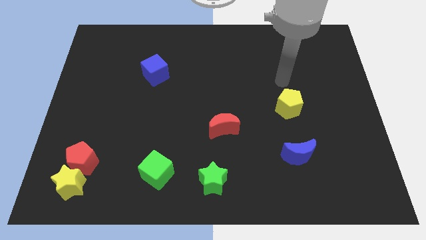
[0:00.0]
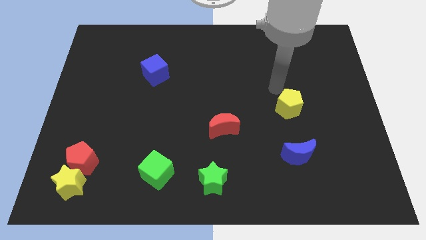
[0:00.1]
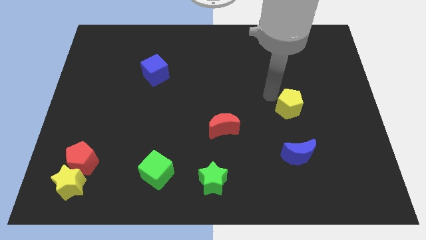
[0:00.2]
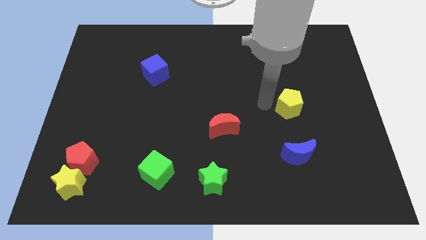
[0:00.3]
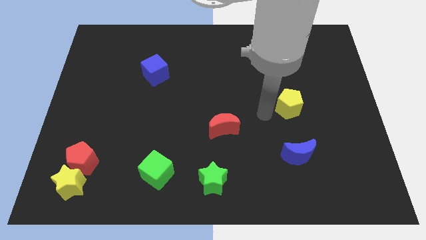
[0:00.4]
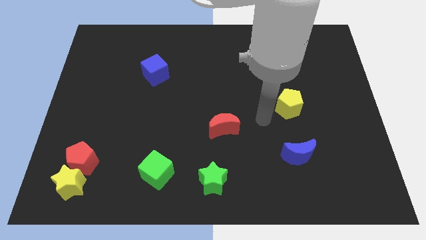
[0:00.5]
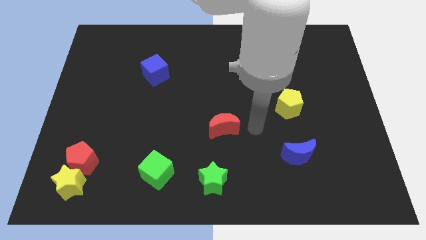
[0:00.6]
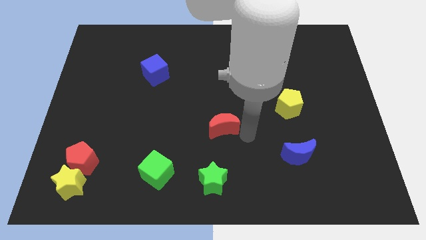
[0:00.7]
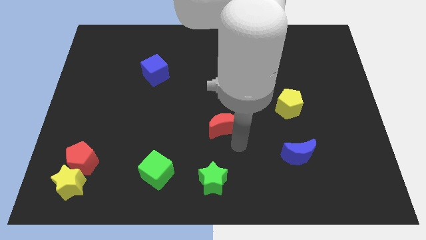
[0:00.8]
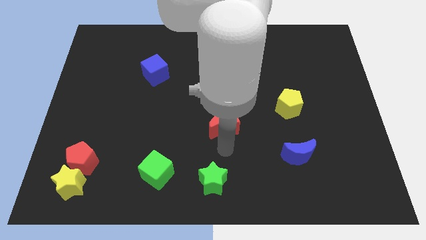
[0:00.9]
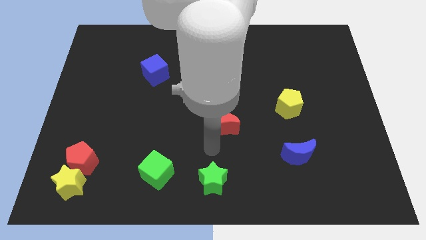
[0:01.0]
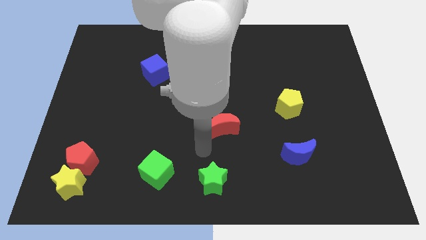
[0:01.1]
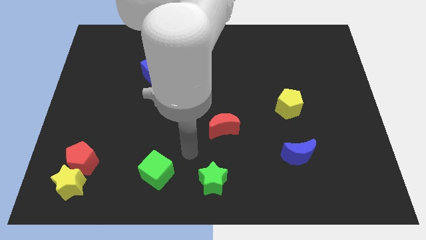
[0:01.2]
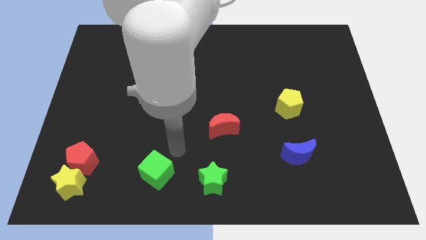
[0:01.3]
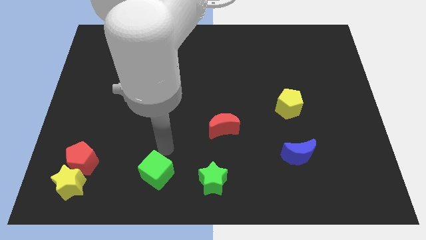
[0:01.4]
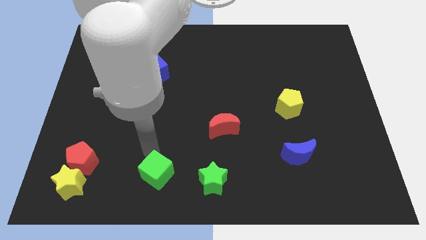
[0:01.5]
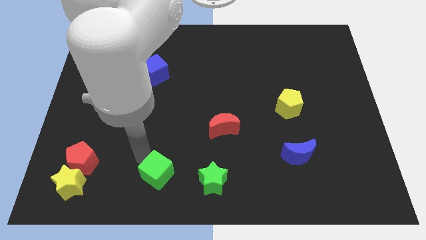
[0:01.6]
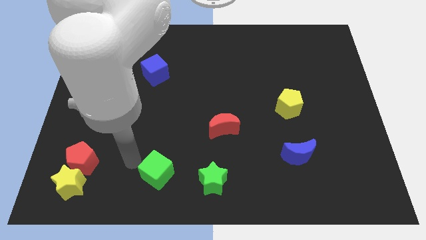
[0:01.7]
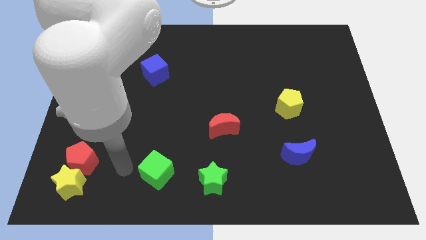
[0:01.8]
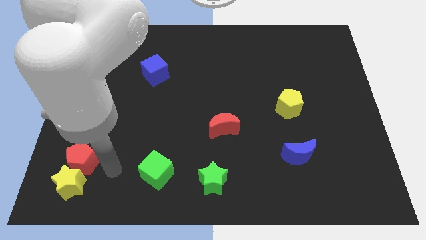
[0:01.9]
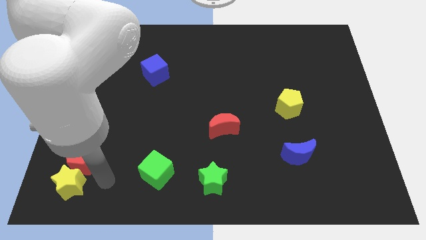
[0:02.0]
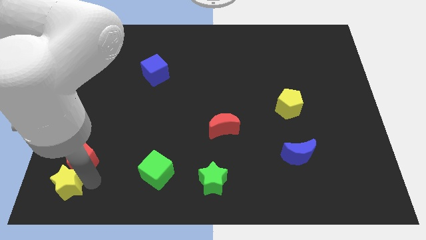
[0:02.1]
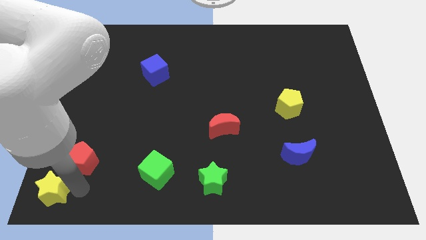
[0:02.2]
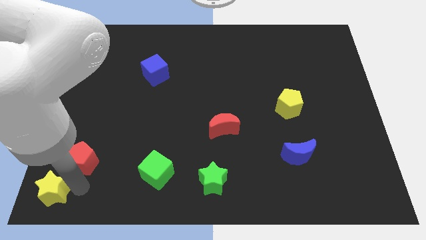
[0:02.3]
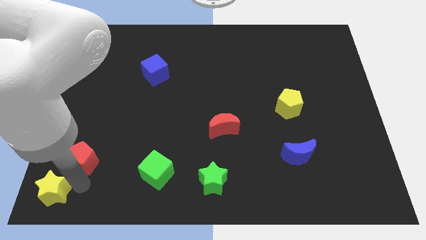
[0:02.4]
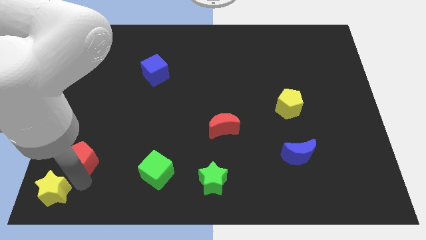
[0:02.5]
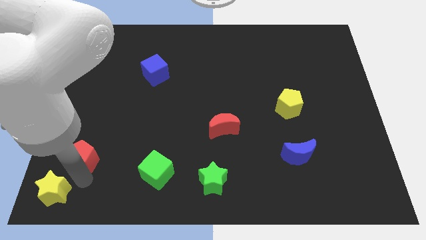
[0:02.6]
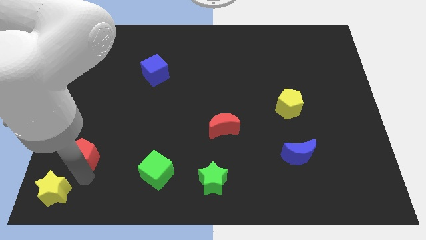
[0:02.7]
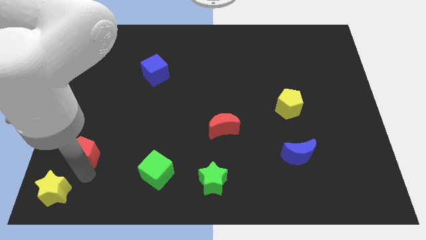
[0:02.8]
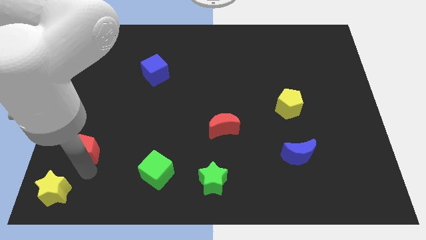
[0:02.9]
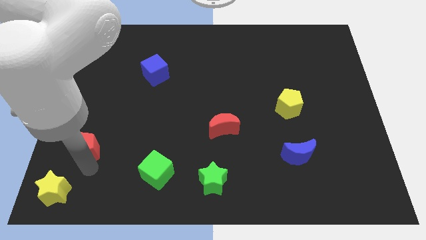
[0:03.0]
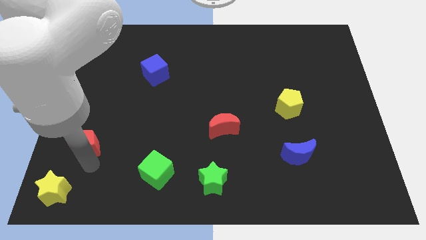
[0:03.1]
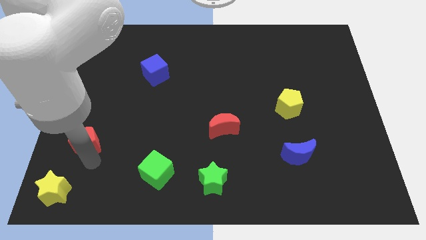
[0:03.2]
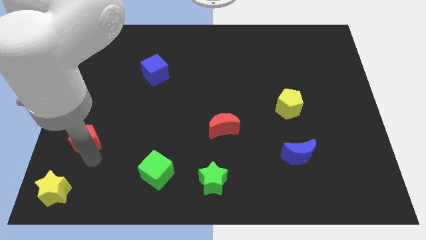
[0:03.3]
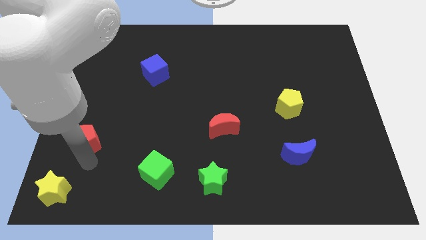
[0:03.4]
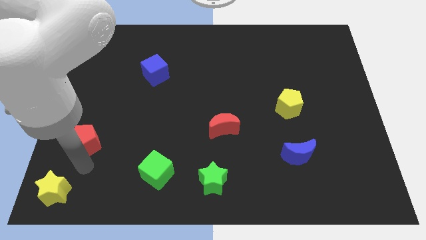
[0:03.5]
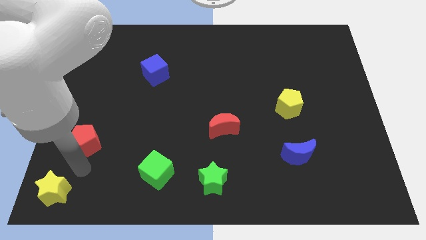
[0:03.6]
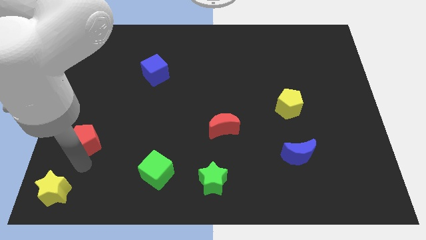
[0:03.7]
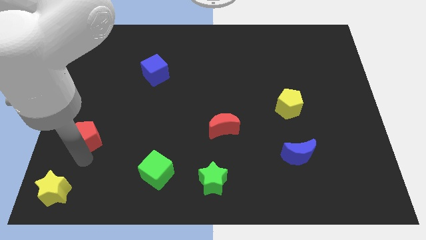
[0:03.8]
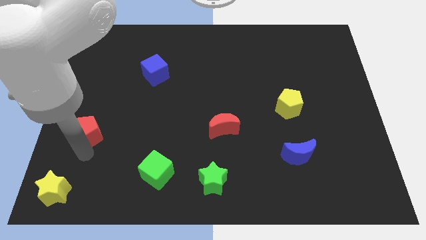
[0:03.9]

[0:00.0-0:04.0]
move the red pentagon up a little bit

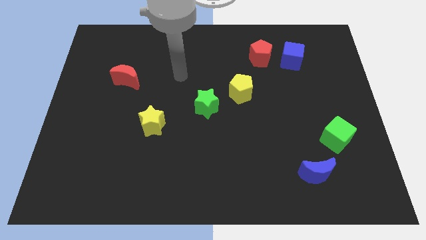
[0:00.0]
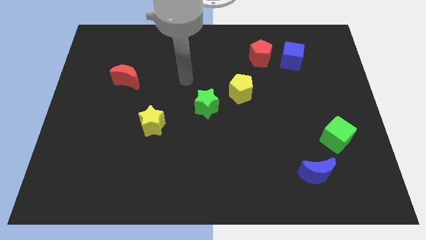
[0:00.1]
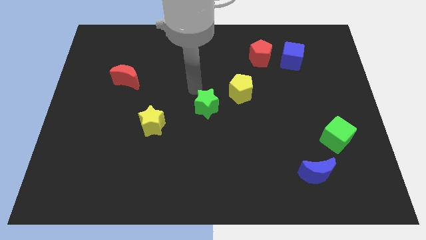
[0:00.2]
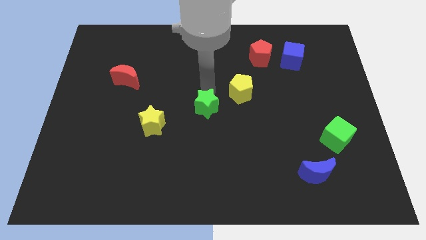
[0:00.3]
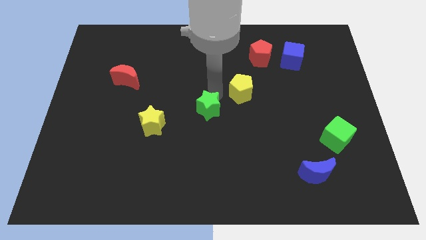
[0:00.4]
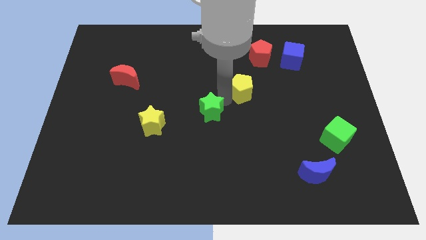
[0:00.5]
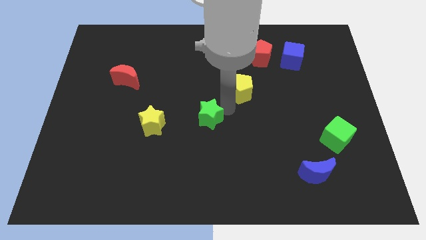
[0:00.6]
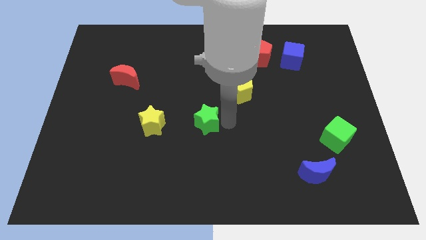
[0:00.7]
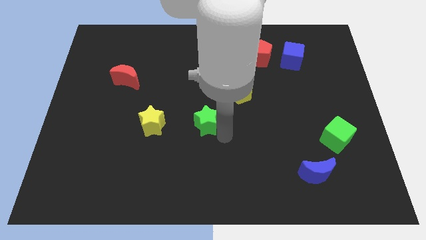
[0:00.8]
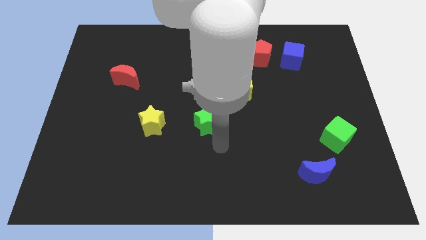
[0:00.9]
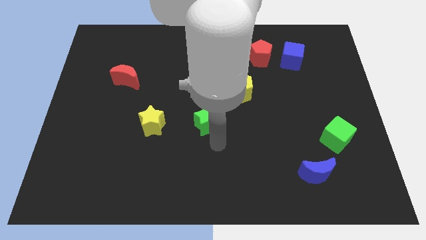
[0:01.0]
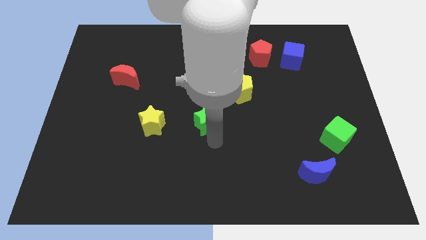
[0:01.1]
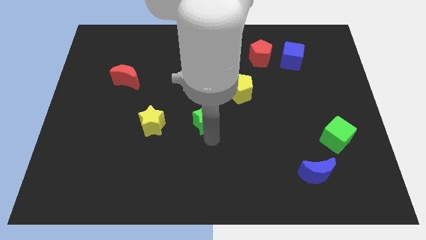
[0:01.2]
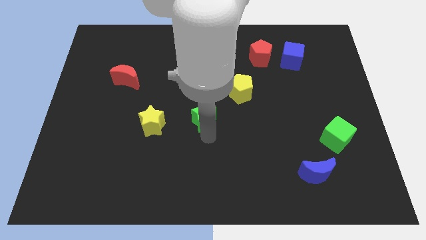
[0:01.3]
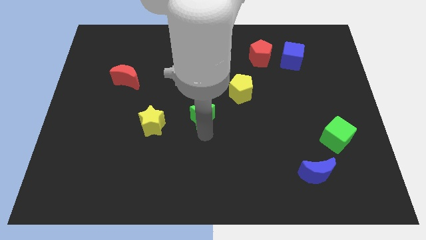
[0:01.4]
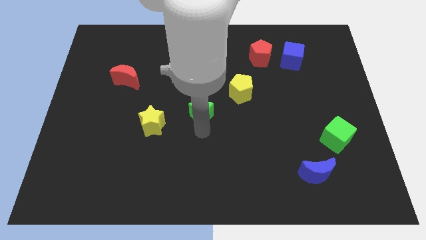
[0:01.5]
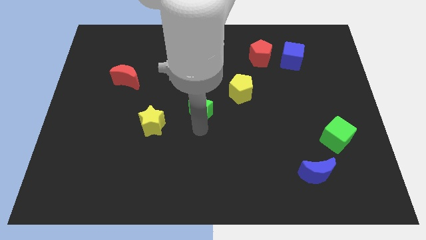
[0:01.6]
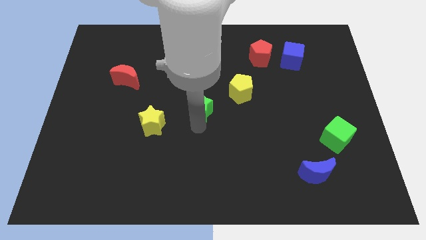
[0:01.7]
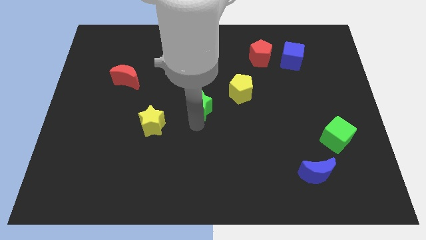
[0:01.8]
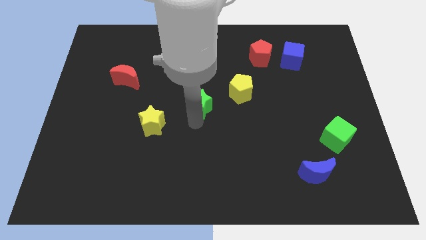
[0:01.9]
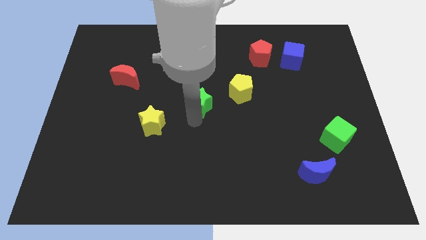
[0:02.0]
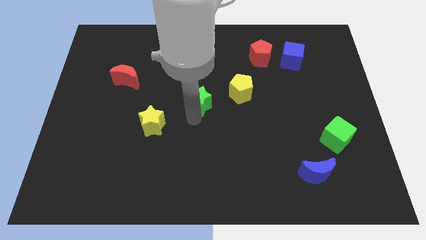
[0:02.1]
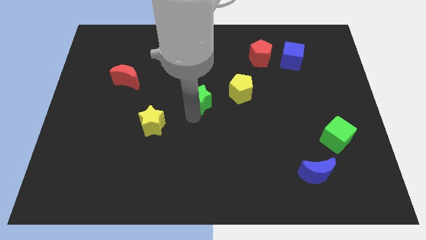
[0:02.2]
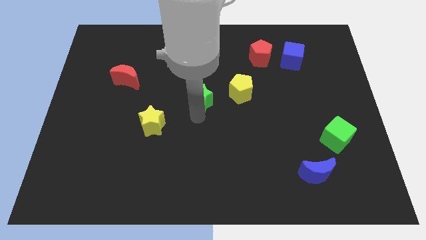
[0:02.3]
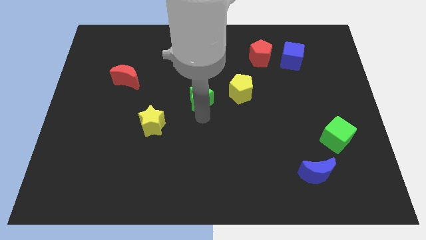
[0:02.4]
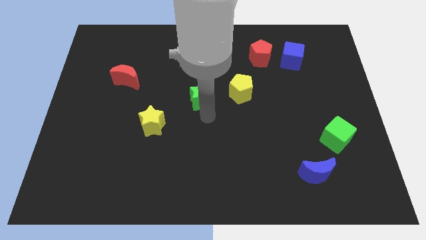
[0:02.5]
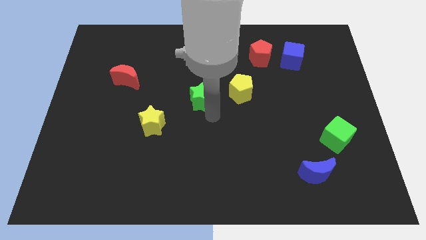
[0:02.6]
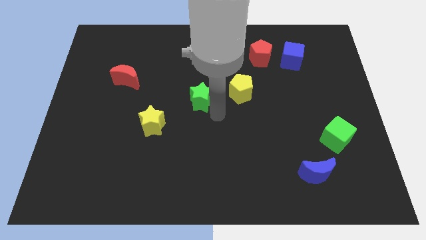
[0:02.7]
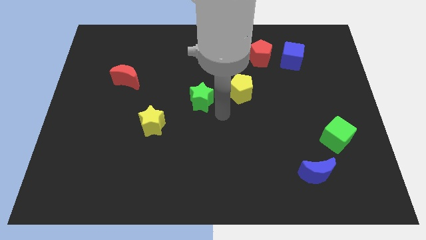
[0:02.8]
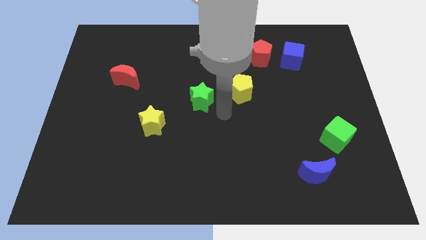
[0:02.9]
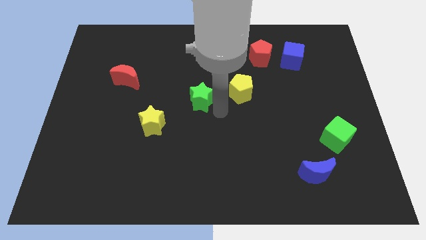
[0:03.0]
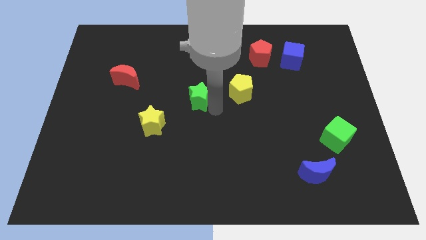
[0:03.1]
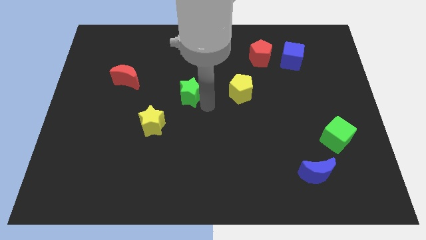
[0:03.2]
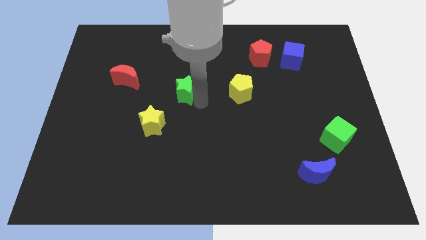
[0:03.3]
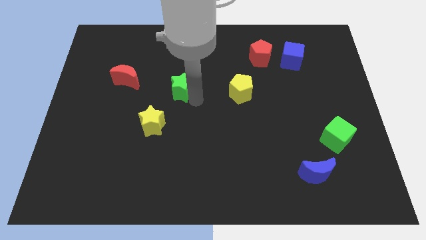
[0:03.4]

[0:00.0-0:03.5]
slightly move the green star up and then to the left
